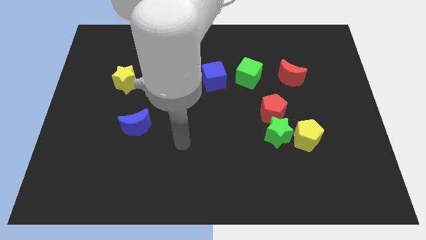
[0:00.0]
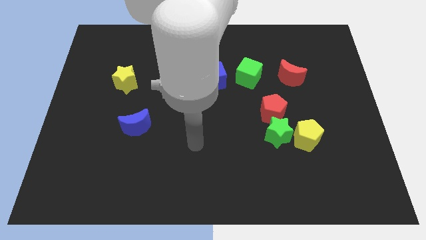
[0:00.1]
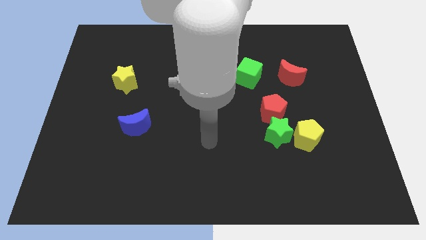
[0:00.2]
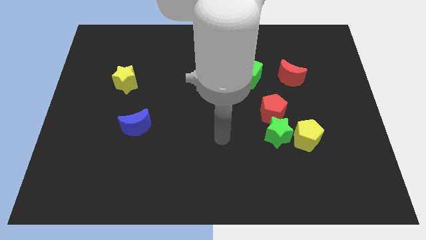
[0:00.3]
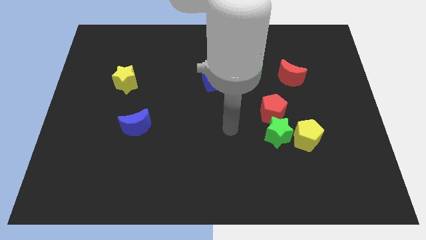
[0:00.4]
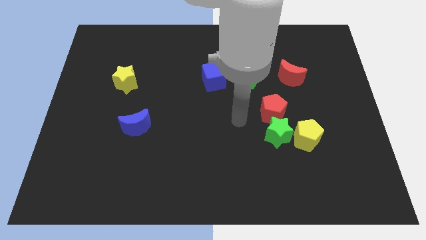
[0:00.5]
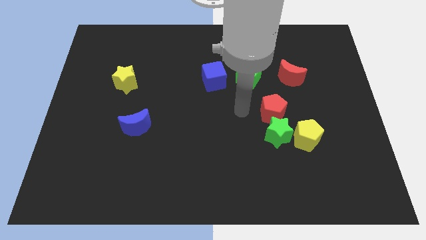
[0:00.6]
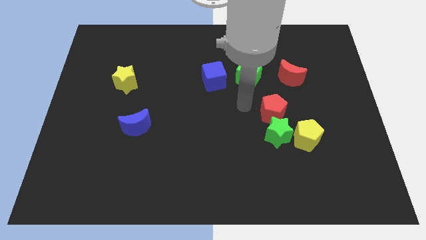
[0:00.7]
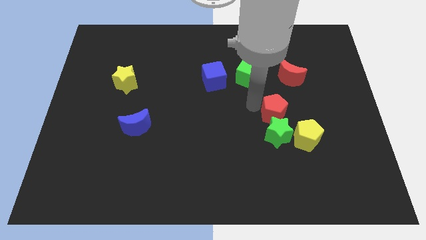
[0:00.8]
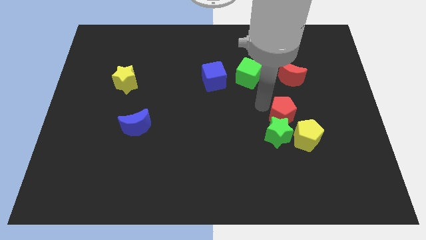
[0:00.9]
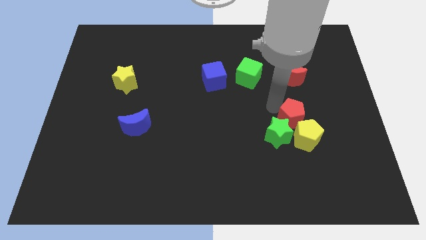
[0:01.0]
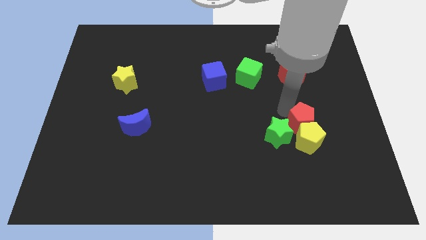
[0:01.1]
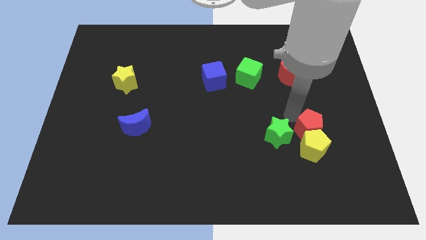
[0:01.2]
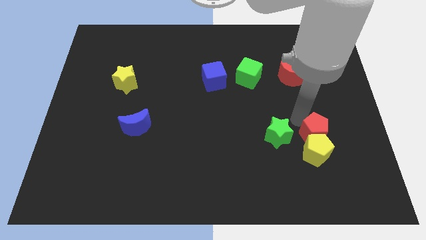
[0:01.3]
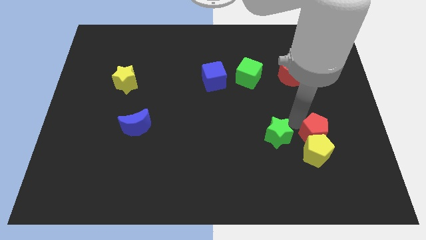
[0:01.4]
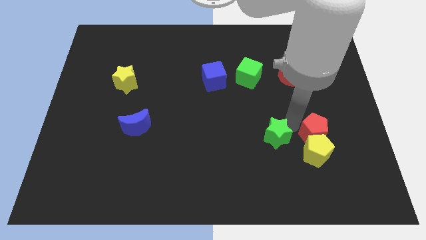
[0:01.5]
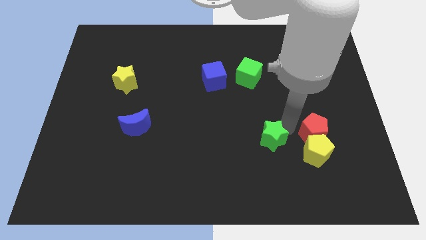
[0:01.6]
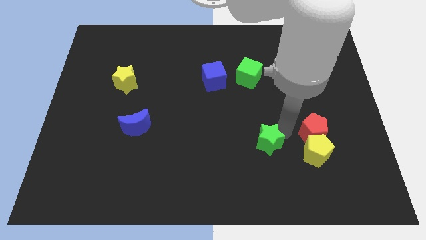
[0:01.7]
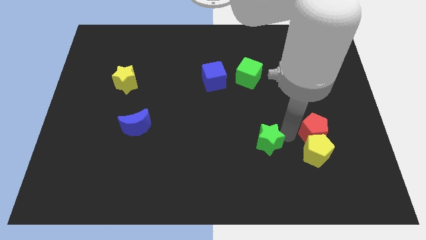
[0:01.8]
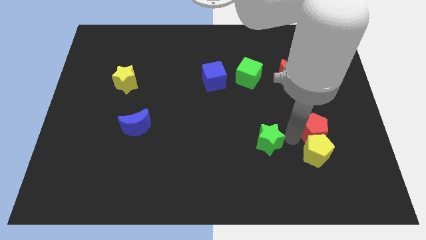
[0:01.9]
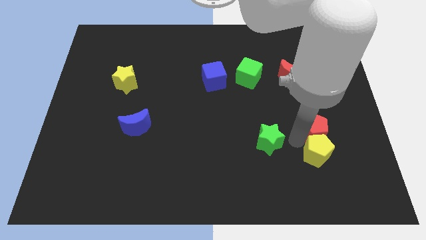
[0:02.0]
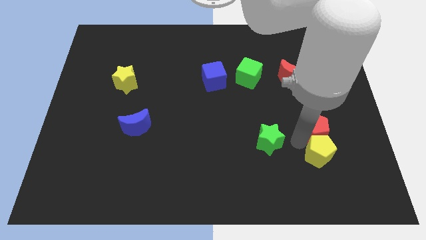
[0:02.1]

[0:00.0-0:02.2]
move the green star away from the red pentagon and yellow pentagon

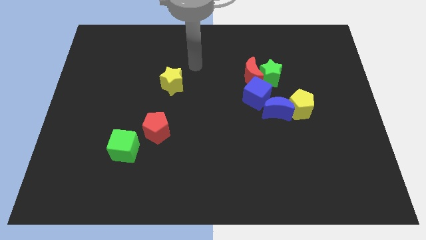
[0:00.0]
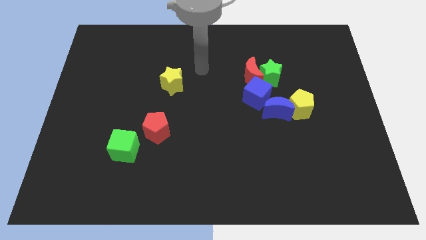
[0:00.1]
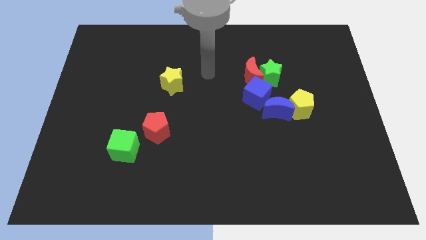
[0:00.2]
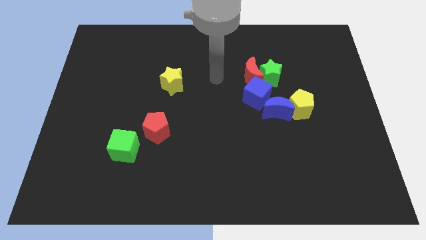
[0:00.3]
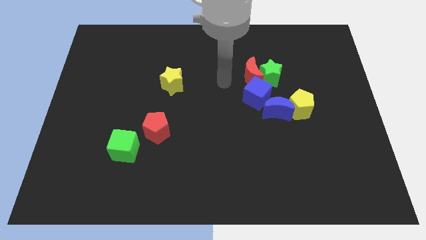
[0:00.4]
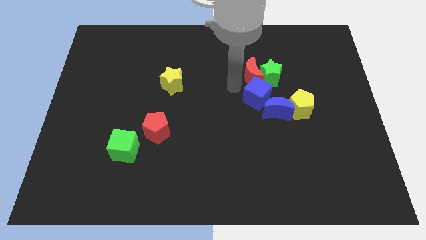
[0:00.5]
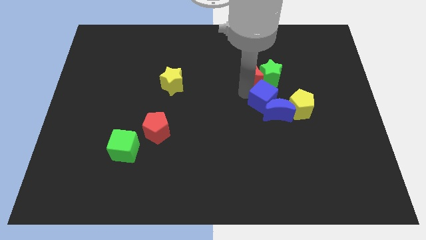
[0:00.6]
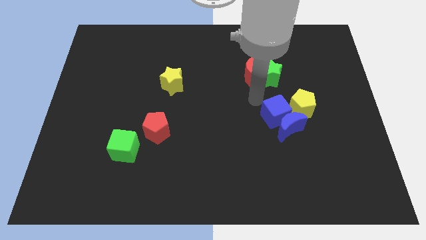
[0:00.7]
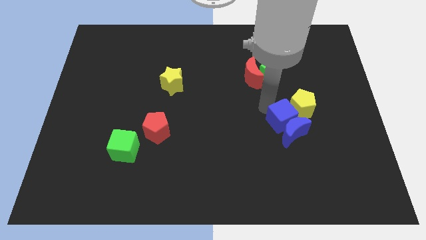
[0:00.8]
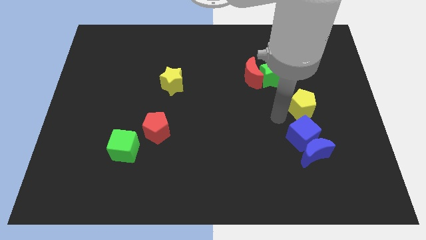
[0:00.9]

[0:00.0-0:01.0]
pull the yellow pentagon apart from the blue moon

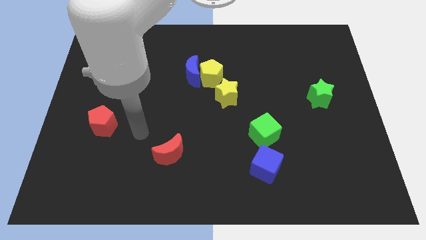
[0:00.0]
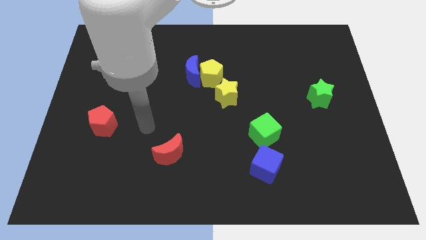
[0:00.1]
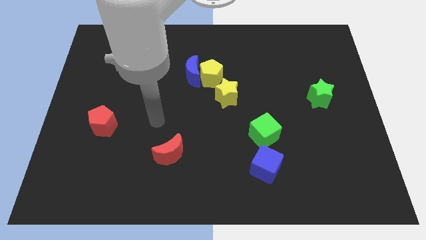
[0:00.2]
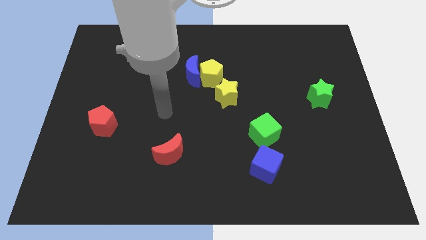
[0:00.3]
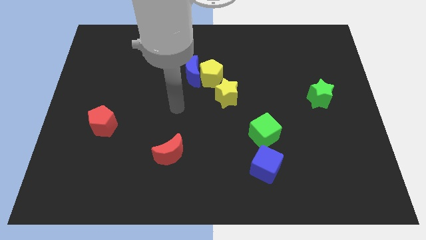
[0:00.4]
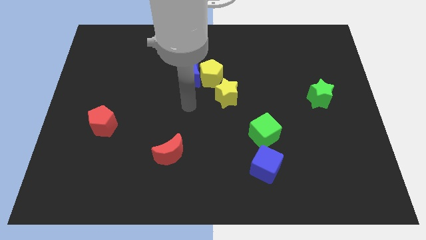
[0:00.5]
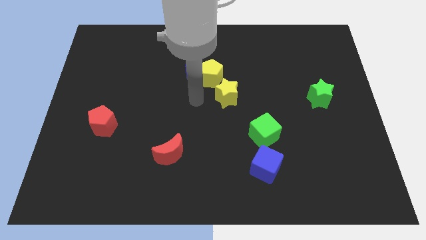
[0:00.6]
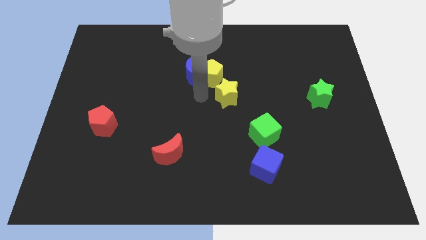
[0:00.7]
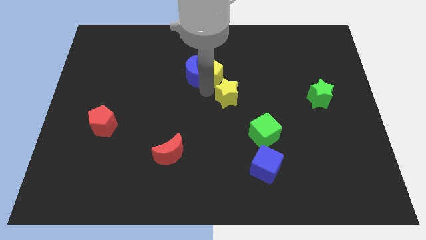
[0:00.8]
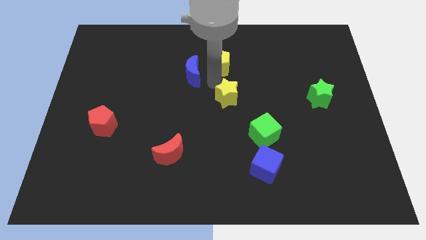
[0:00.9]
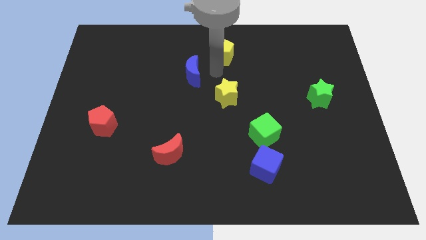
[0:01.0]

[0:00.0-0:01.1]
pull the blue moon apart from the yellow pentagon

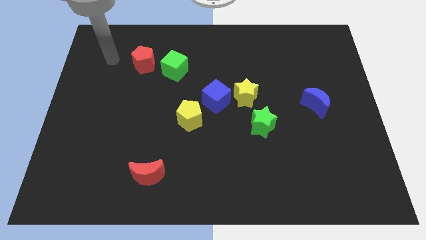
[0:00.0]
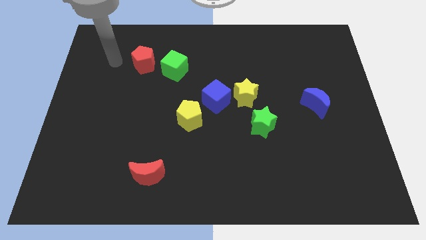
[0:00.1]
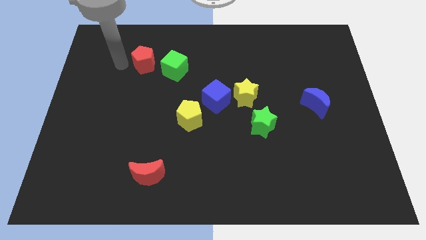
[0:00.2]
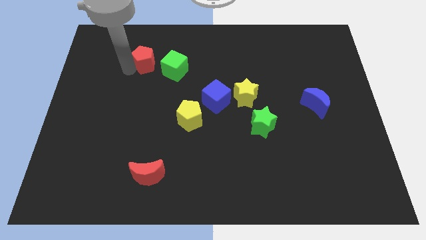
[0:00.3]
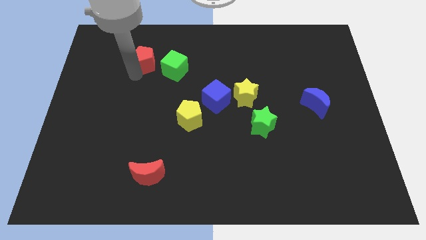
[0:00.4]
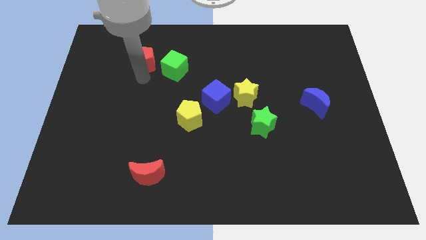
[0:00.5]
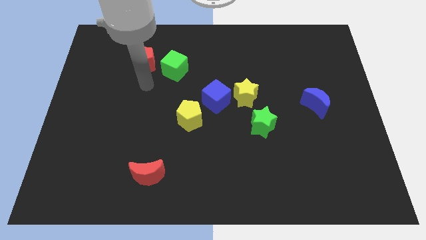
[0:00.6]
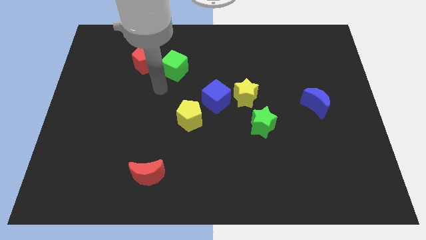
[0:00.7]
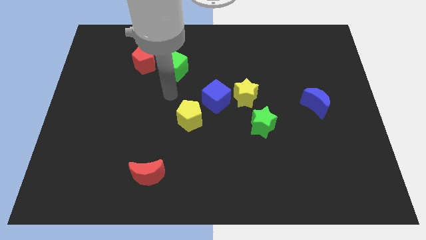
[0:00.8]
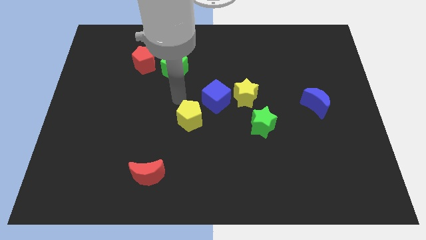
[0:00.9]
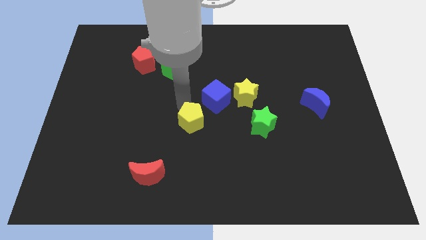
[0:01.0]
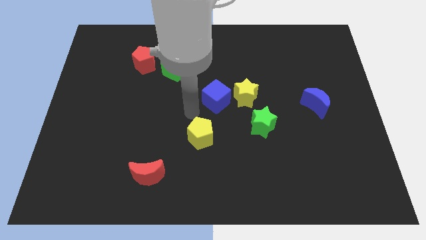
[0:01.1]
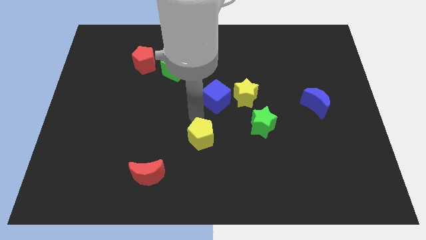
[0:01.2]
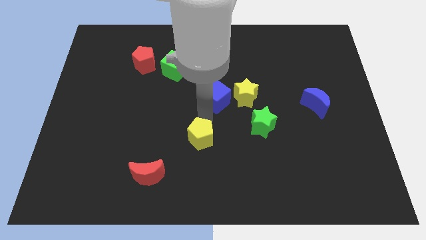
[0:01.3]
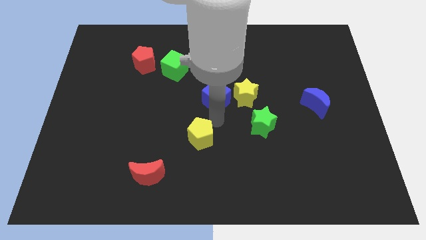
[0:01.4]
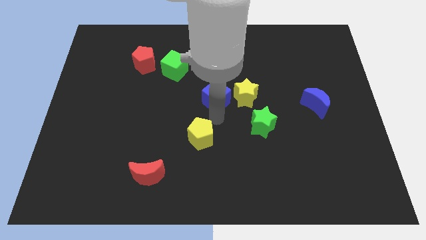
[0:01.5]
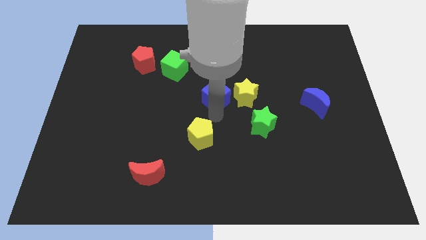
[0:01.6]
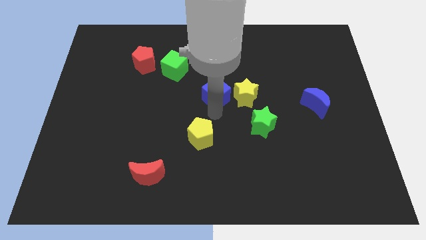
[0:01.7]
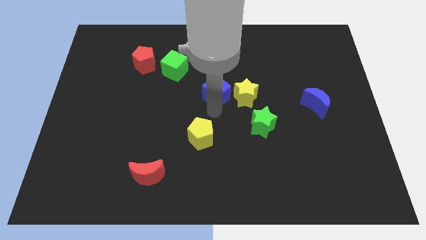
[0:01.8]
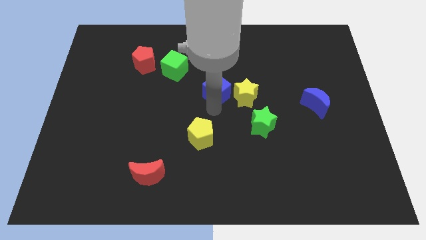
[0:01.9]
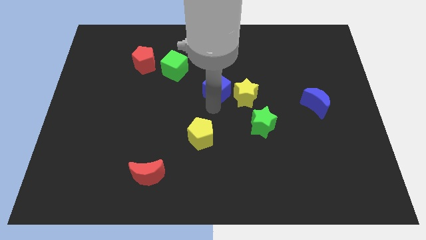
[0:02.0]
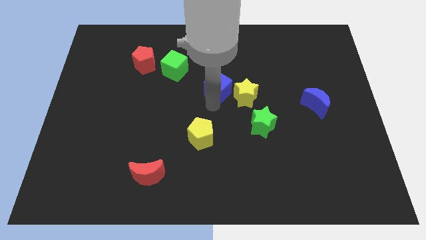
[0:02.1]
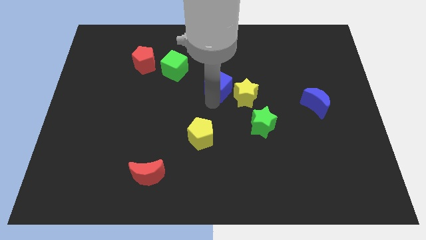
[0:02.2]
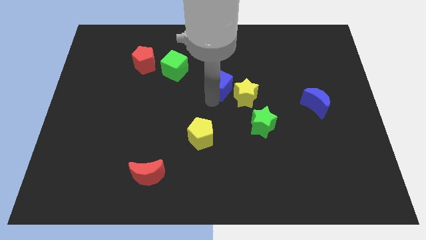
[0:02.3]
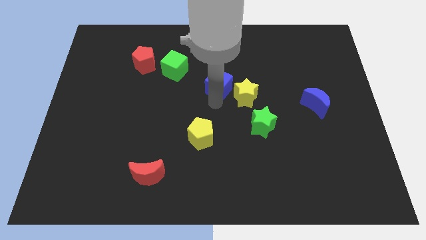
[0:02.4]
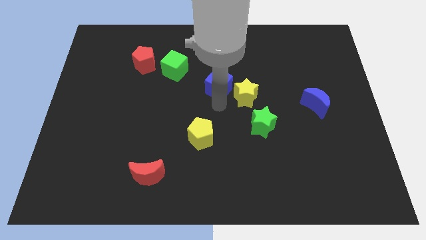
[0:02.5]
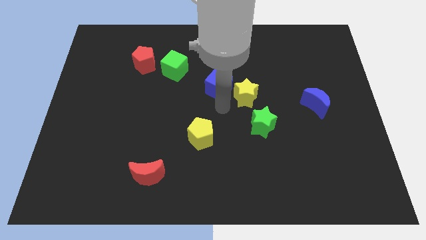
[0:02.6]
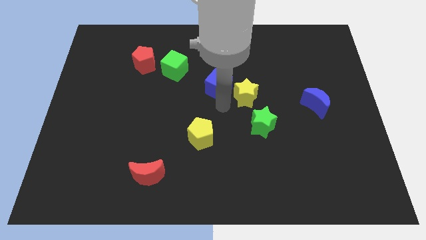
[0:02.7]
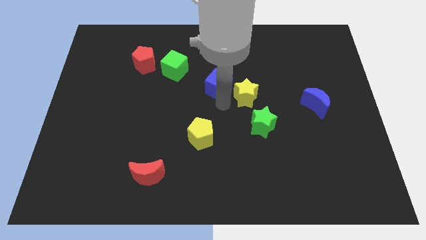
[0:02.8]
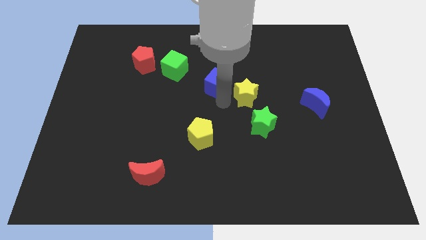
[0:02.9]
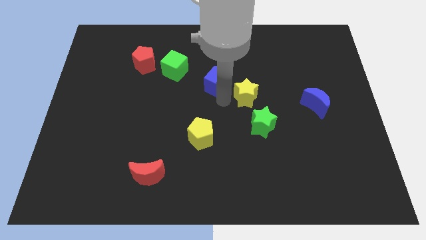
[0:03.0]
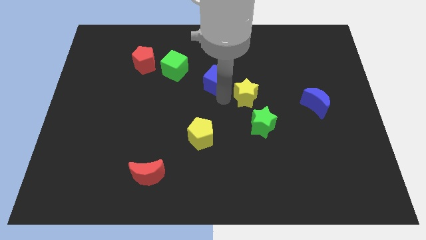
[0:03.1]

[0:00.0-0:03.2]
move the blue cube away from the yellow star and yellow pentagon

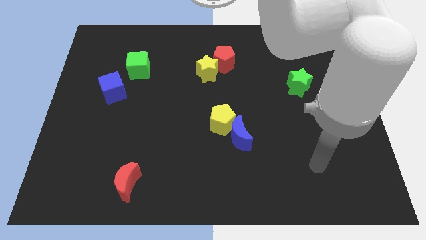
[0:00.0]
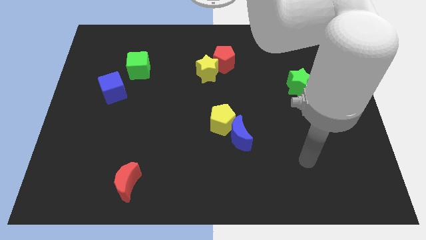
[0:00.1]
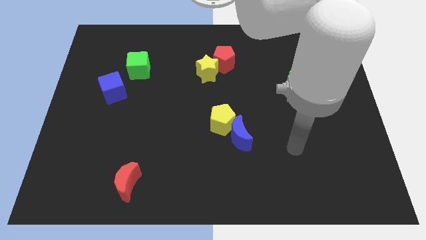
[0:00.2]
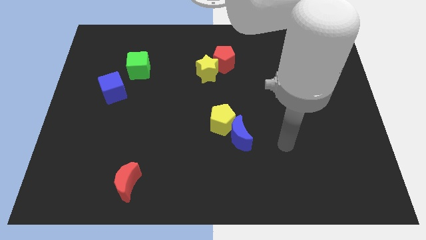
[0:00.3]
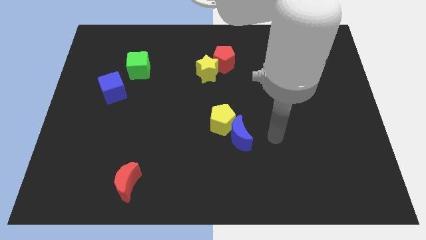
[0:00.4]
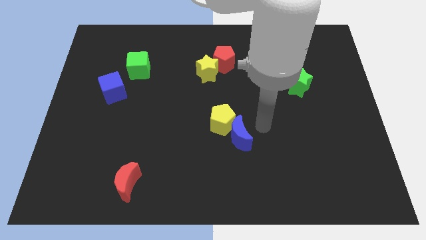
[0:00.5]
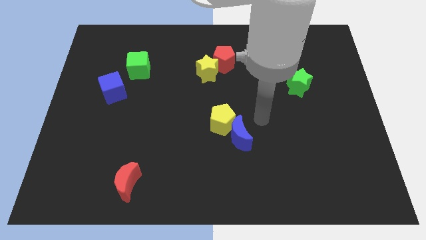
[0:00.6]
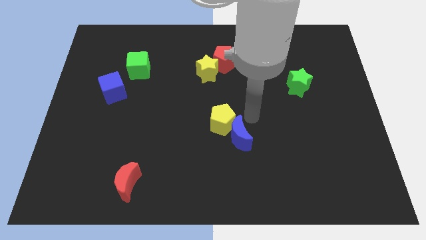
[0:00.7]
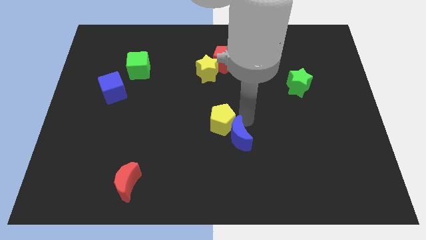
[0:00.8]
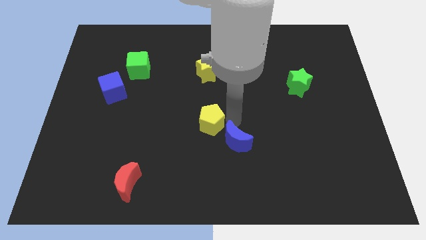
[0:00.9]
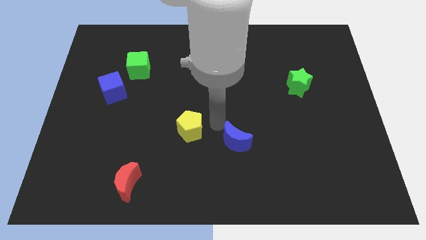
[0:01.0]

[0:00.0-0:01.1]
separate the blue moon from the yellow pentagon

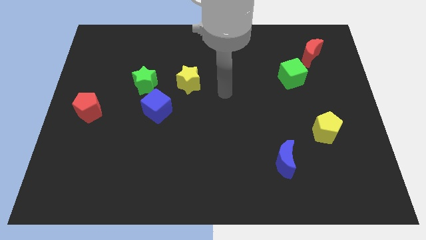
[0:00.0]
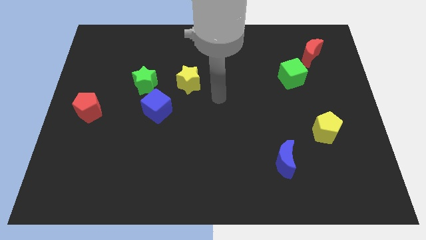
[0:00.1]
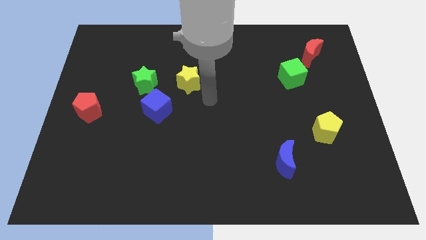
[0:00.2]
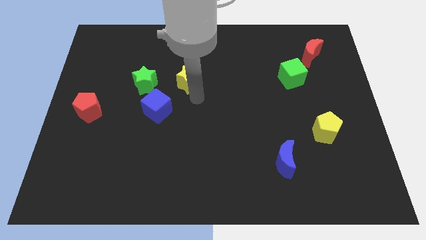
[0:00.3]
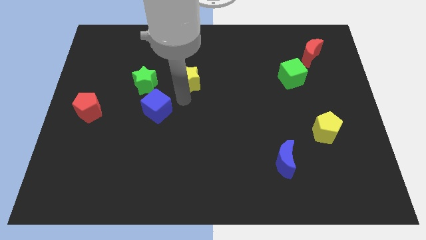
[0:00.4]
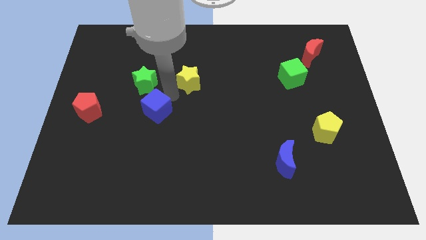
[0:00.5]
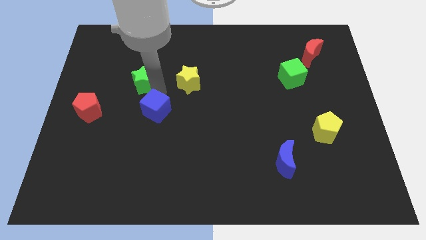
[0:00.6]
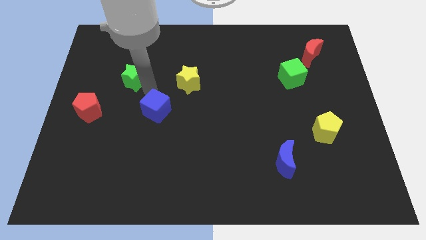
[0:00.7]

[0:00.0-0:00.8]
pull the blue cube apart from the green star
